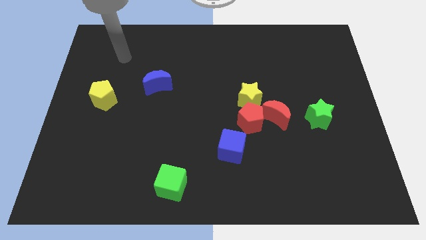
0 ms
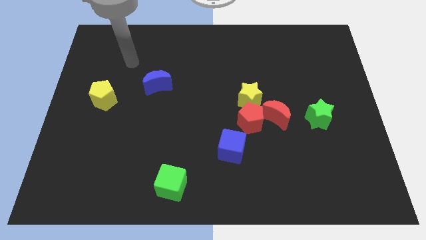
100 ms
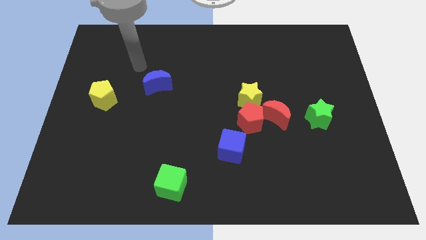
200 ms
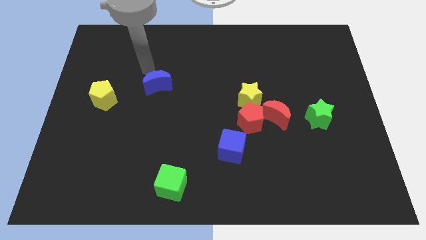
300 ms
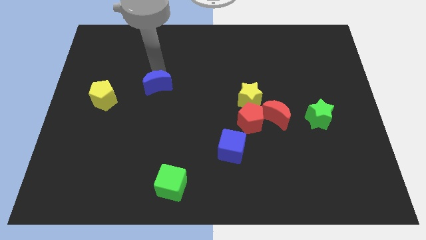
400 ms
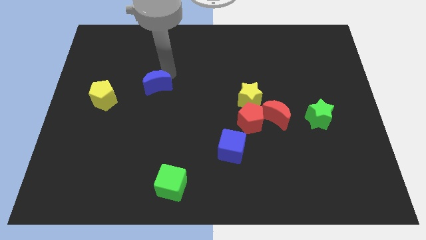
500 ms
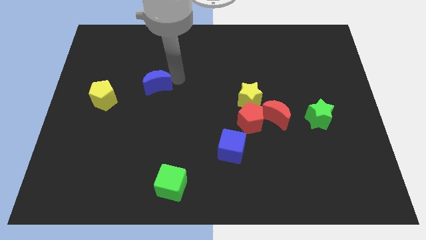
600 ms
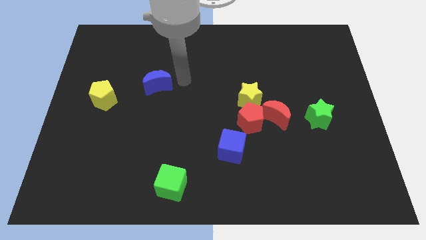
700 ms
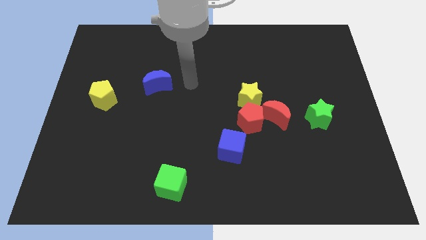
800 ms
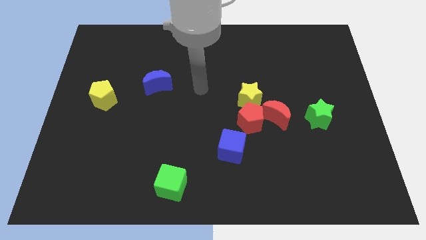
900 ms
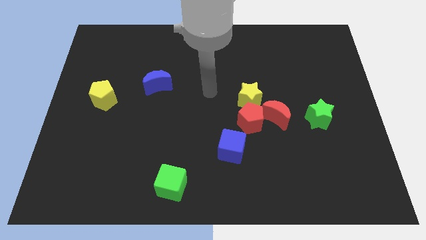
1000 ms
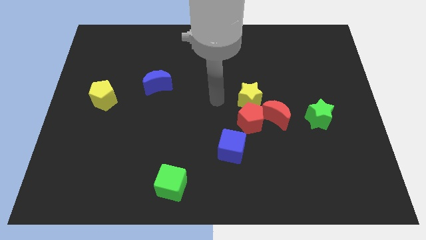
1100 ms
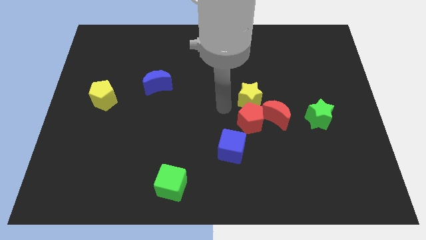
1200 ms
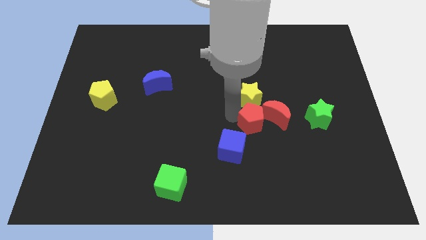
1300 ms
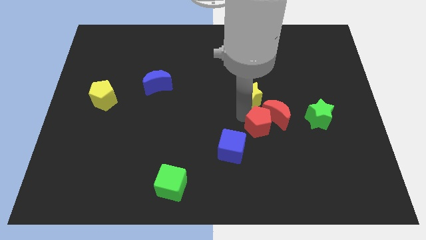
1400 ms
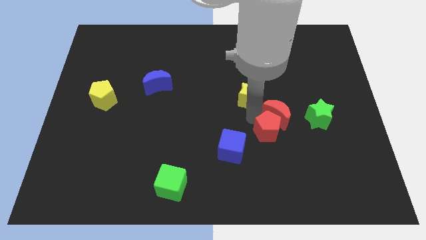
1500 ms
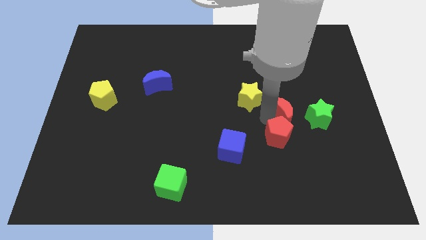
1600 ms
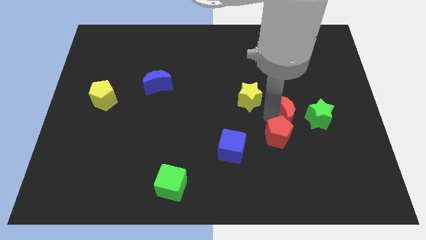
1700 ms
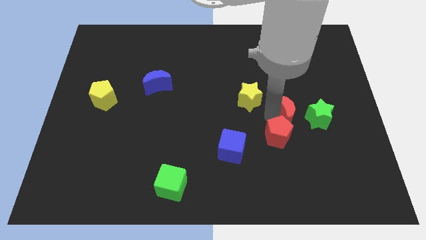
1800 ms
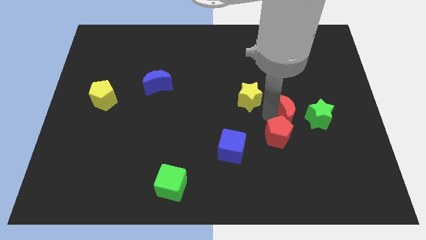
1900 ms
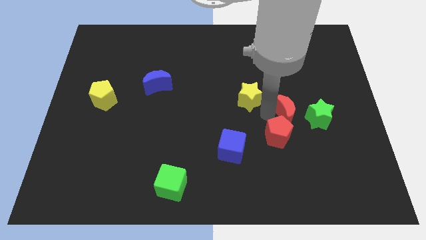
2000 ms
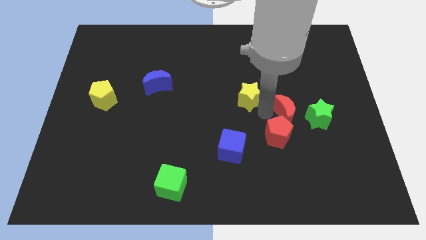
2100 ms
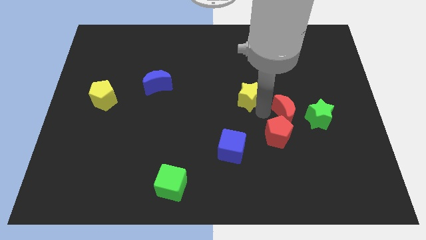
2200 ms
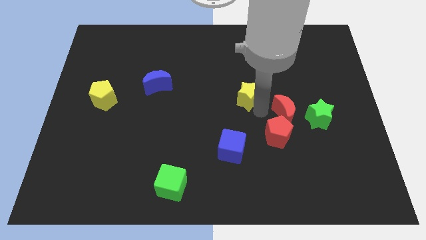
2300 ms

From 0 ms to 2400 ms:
move the yellow star away from the red pentagon and red moon

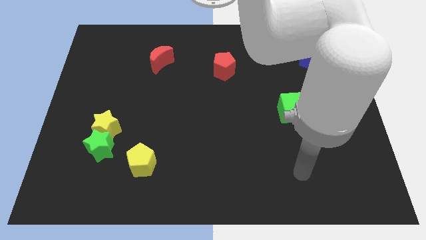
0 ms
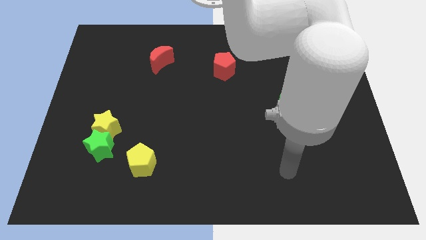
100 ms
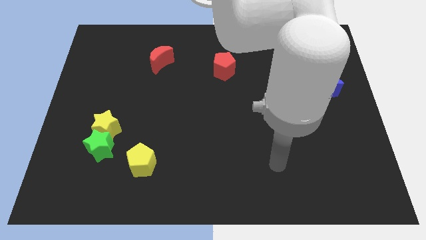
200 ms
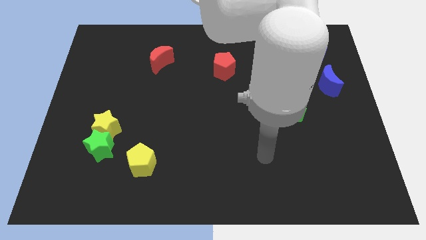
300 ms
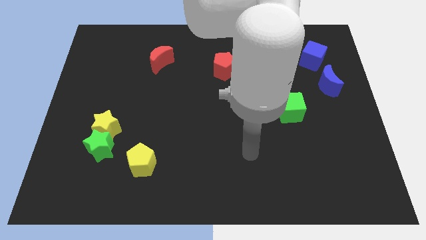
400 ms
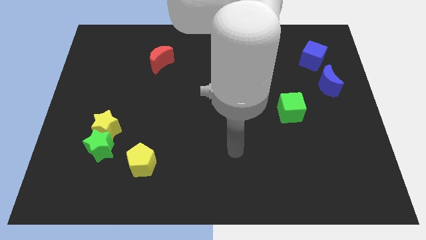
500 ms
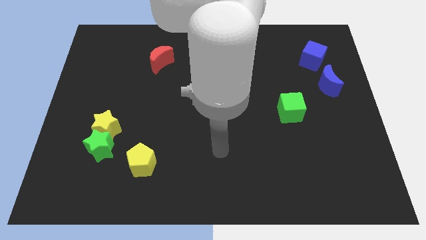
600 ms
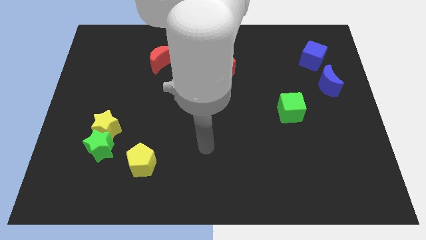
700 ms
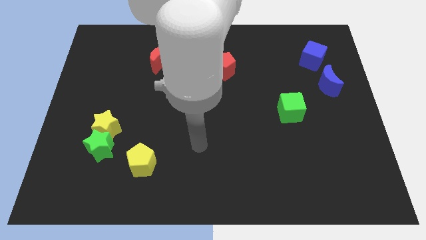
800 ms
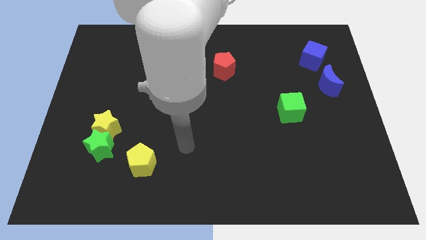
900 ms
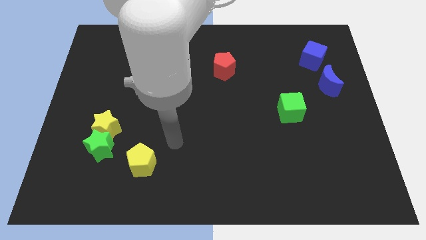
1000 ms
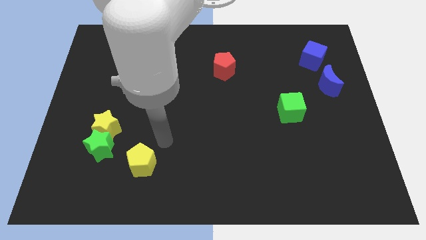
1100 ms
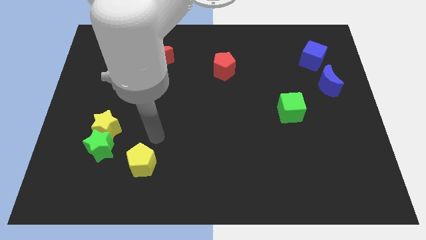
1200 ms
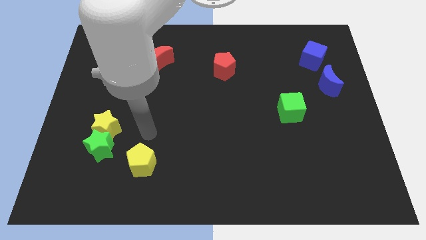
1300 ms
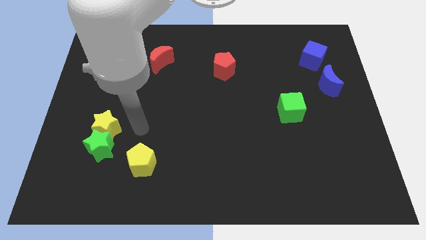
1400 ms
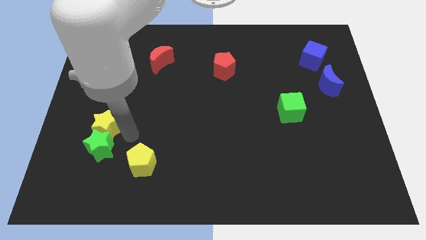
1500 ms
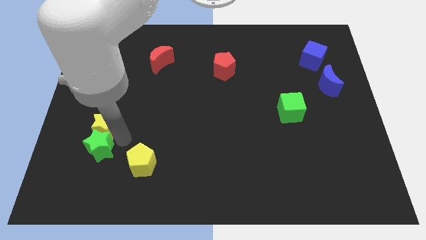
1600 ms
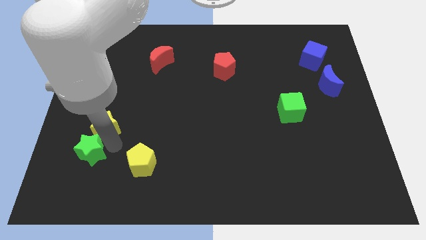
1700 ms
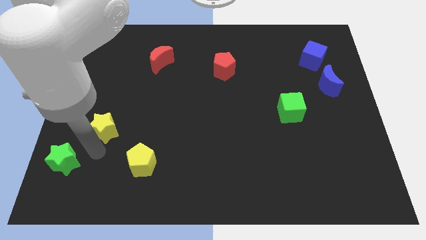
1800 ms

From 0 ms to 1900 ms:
move the yellow star away from the green star

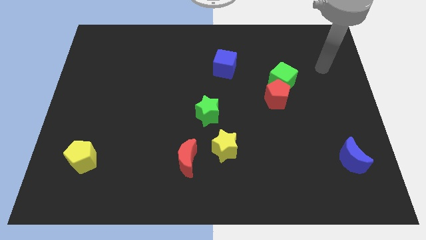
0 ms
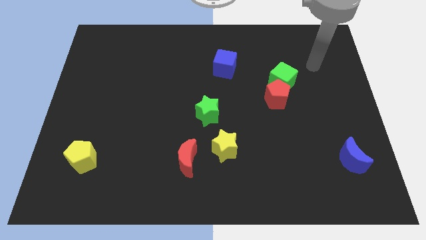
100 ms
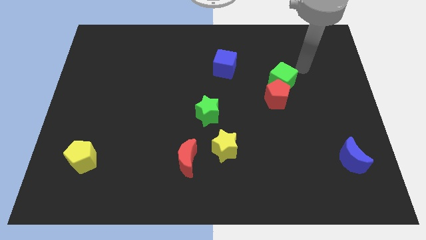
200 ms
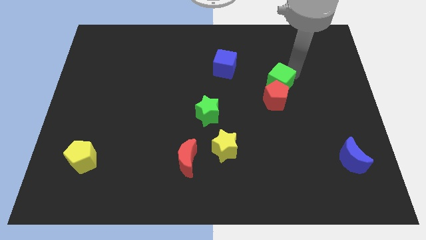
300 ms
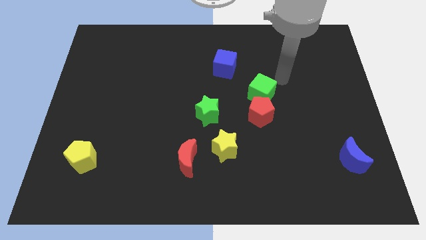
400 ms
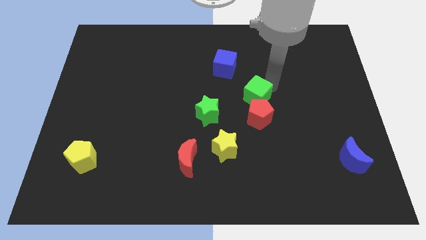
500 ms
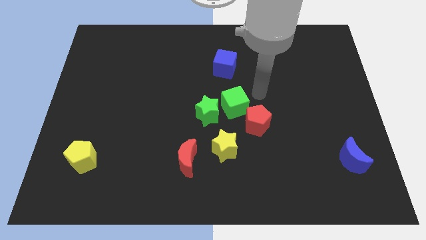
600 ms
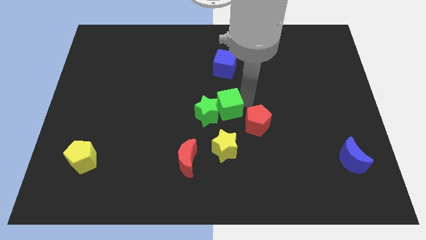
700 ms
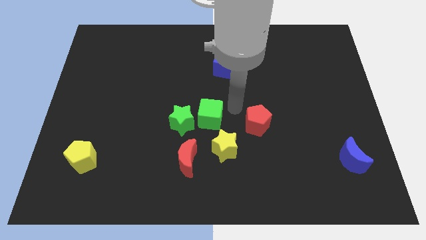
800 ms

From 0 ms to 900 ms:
separate the red pentagon from the green cube

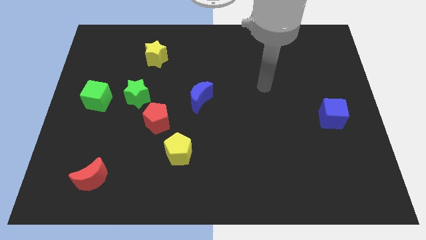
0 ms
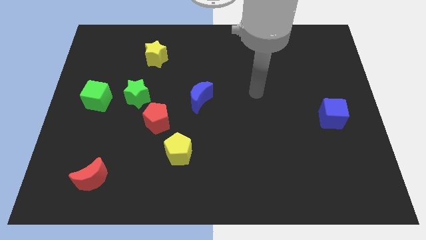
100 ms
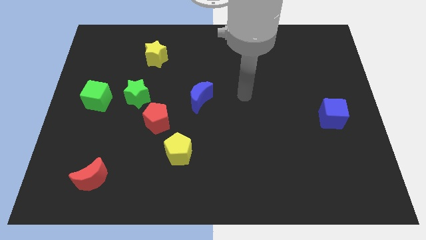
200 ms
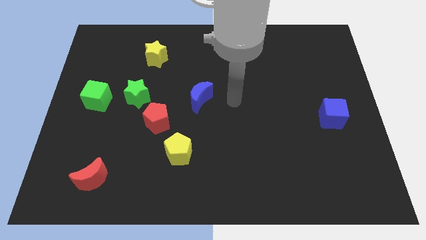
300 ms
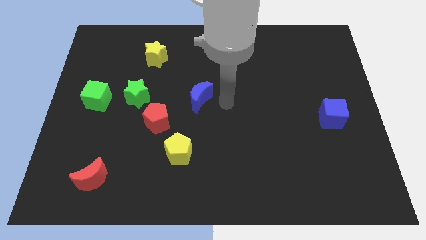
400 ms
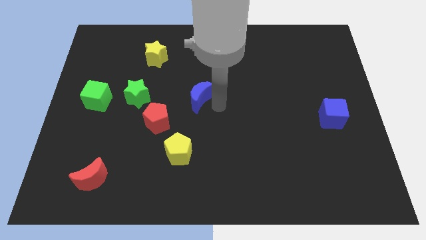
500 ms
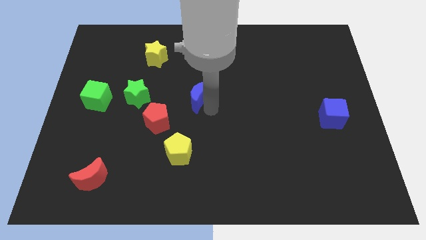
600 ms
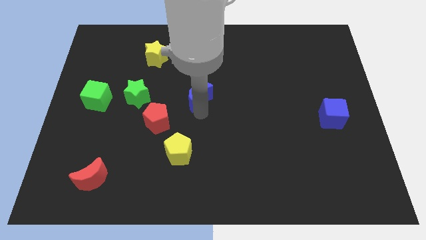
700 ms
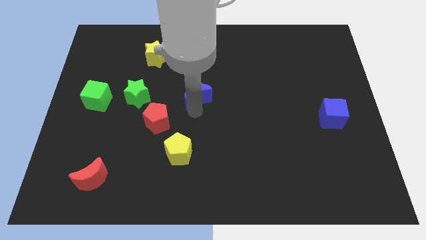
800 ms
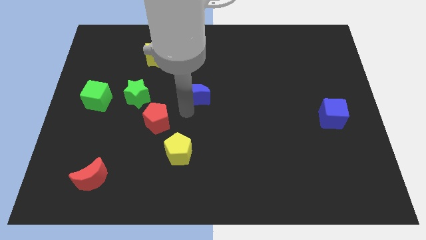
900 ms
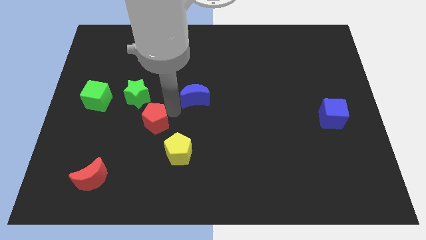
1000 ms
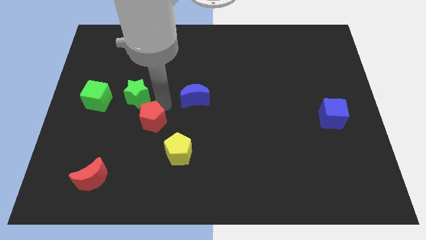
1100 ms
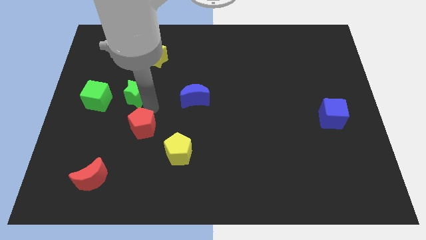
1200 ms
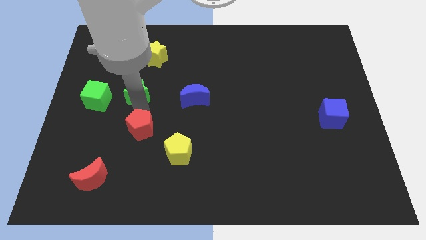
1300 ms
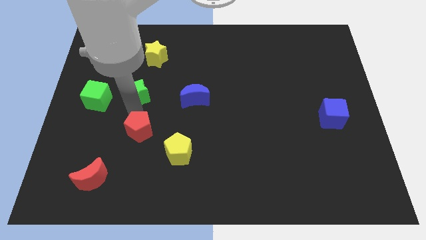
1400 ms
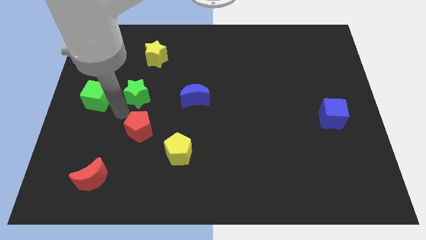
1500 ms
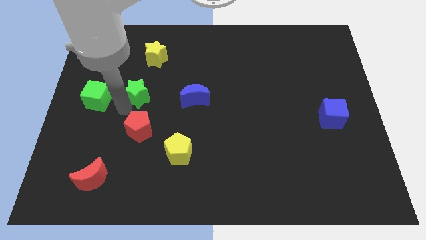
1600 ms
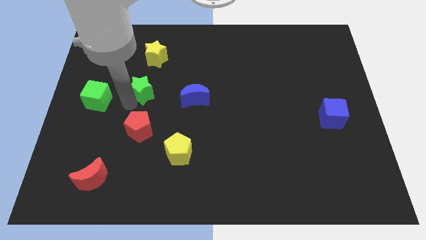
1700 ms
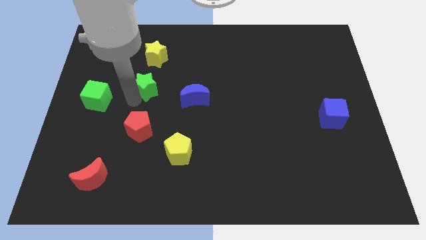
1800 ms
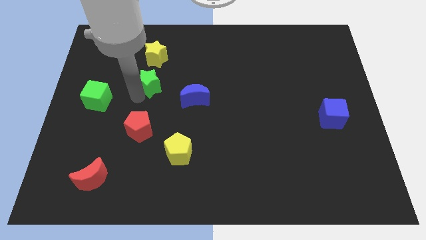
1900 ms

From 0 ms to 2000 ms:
move the green star away from the red pentagon and green cube

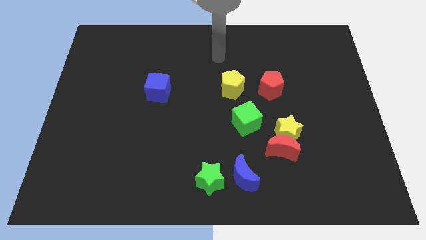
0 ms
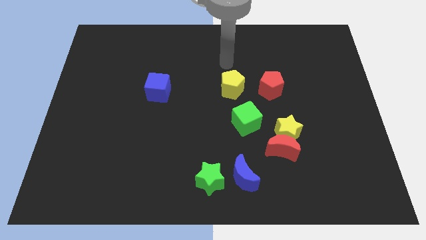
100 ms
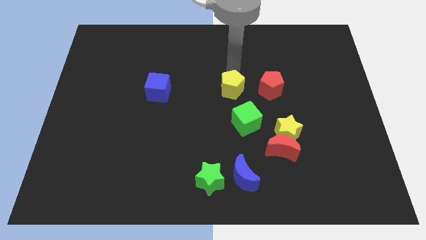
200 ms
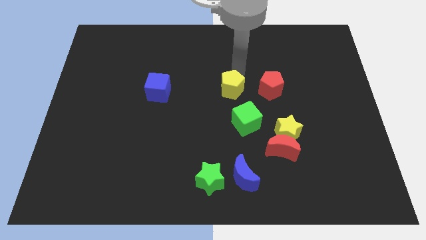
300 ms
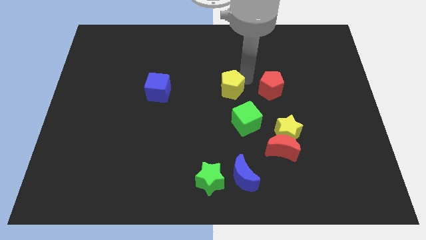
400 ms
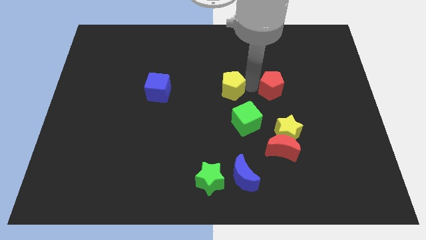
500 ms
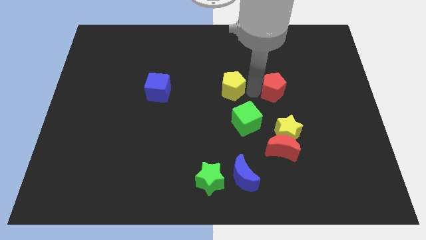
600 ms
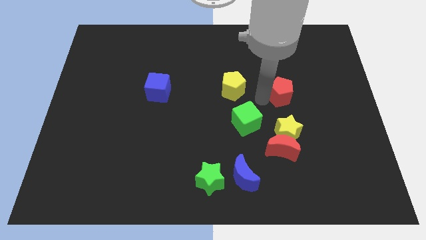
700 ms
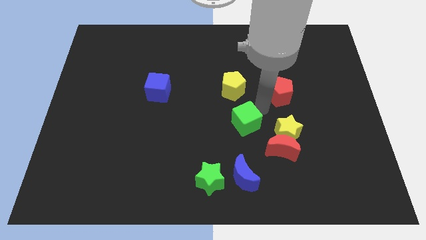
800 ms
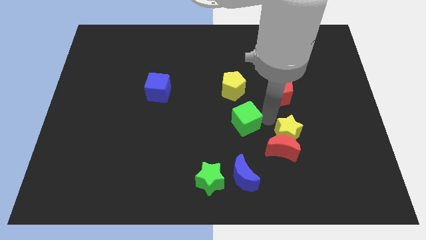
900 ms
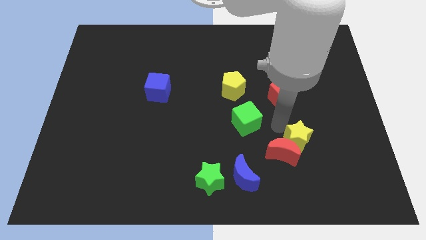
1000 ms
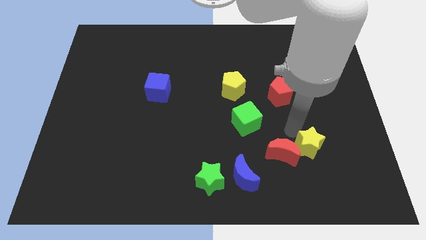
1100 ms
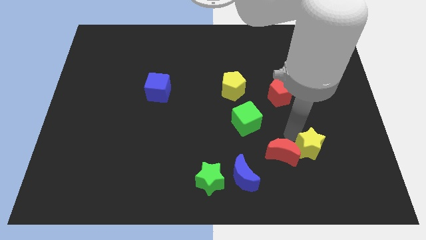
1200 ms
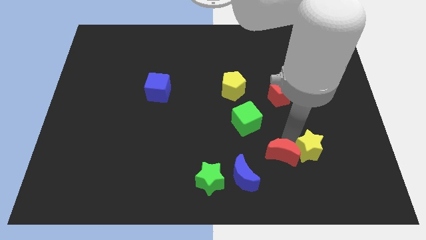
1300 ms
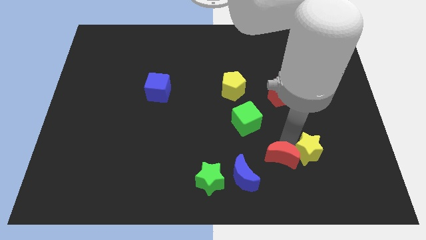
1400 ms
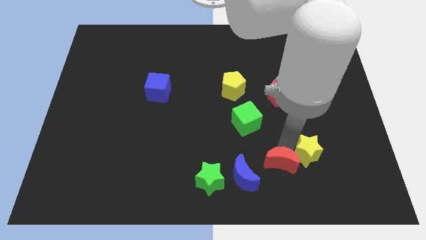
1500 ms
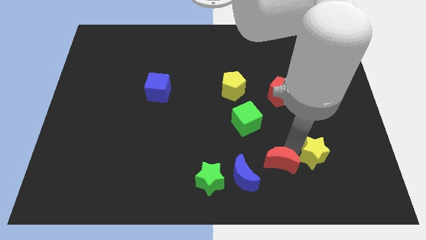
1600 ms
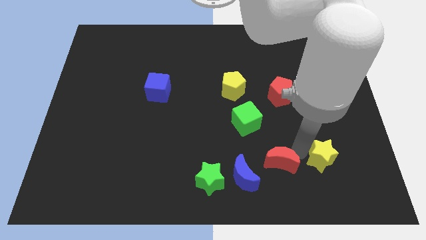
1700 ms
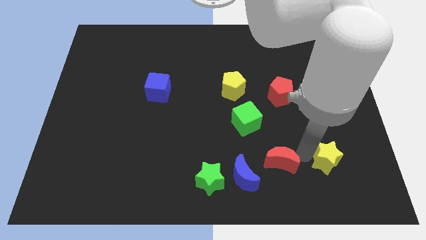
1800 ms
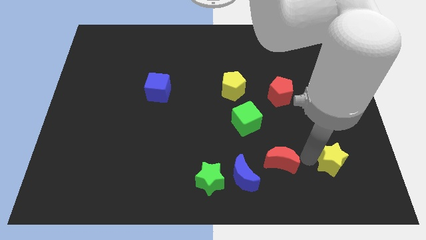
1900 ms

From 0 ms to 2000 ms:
pull the red moon apart from the yellow star
